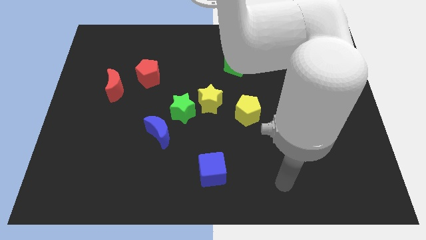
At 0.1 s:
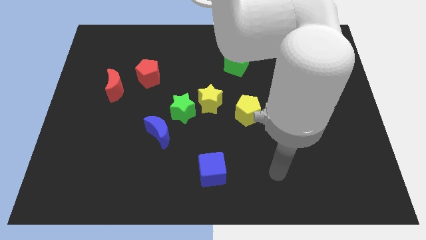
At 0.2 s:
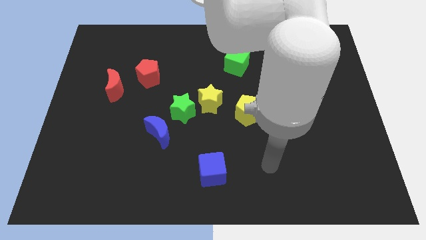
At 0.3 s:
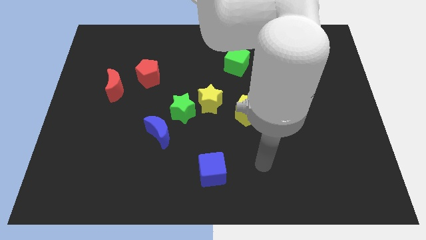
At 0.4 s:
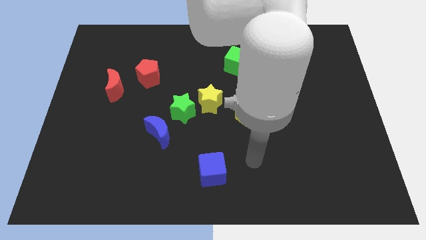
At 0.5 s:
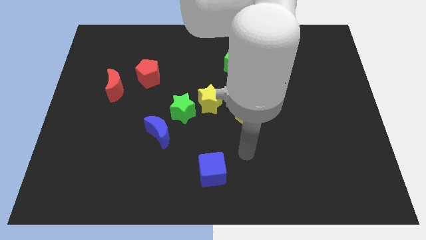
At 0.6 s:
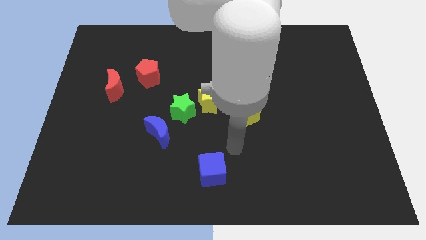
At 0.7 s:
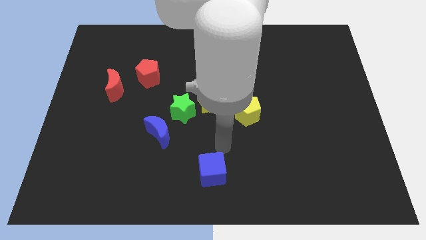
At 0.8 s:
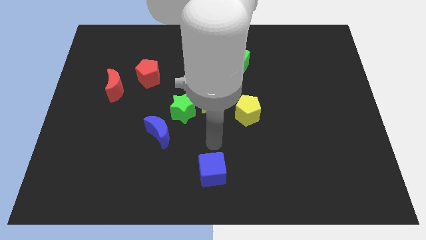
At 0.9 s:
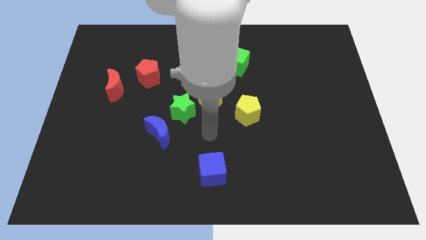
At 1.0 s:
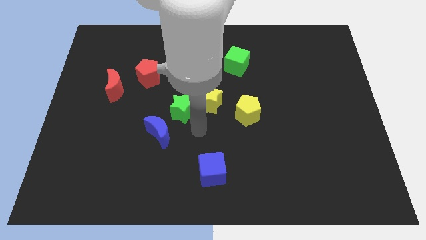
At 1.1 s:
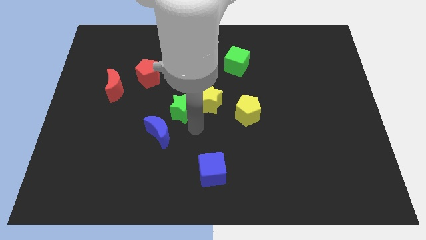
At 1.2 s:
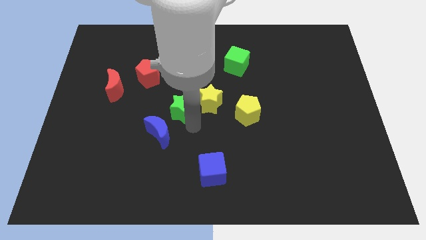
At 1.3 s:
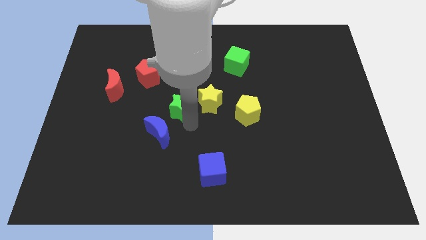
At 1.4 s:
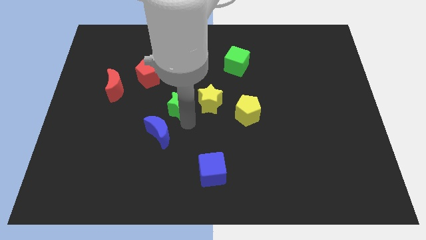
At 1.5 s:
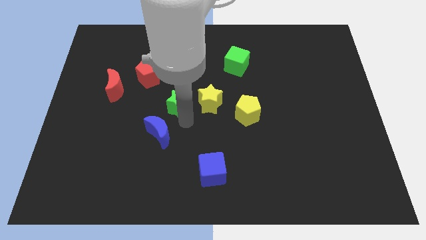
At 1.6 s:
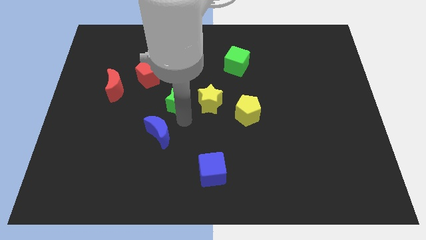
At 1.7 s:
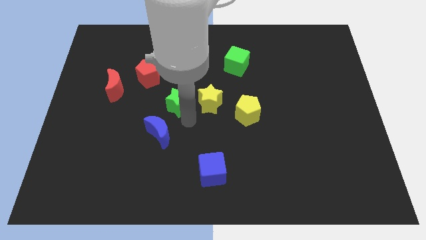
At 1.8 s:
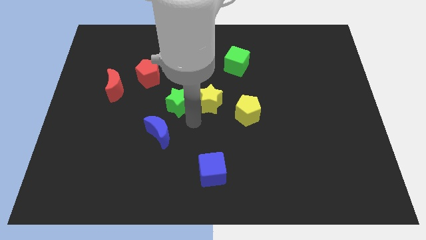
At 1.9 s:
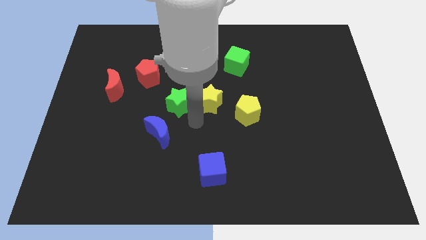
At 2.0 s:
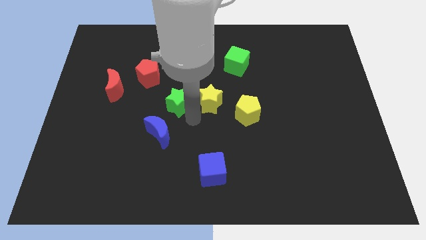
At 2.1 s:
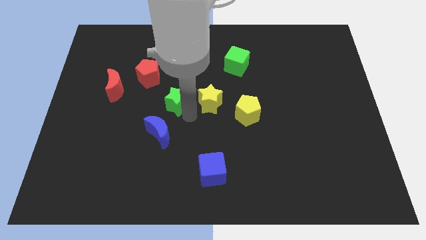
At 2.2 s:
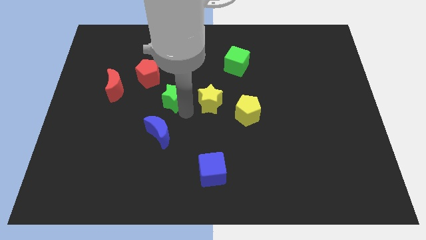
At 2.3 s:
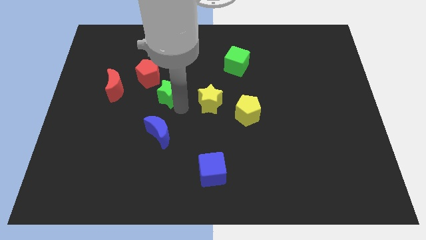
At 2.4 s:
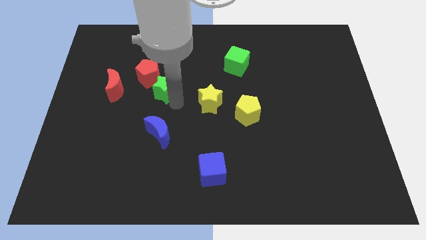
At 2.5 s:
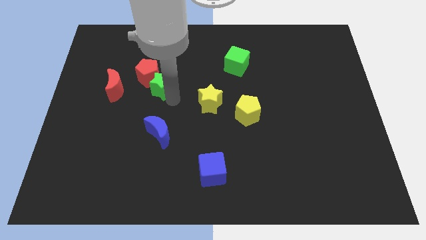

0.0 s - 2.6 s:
move the green star away from the yellow star and blue moon

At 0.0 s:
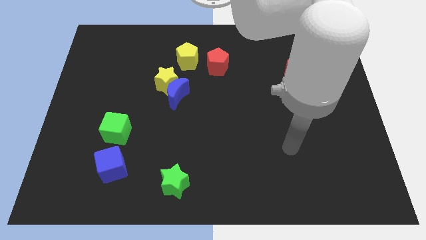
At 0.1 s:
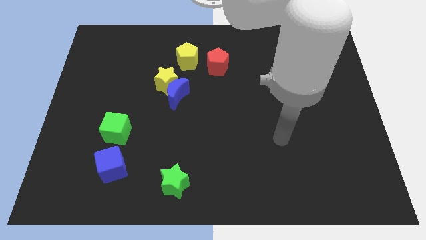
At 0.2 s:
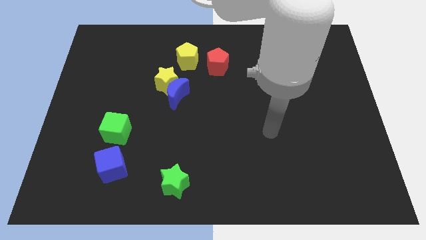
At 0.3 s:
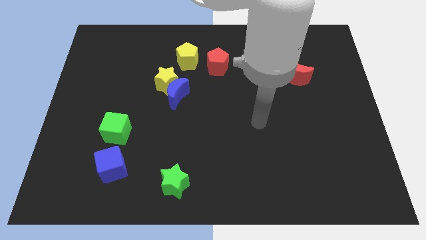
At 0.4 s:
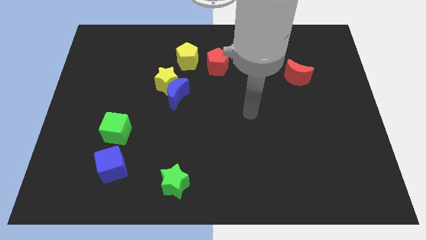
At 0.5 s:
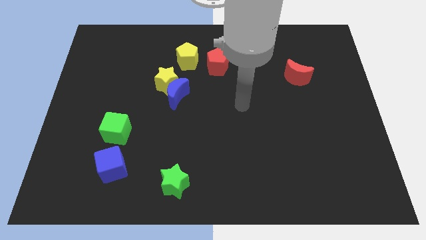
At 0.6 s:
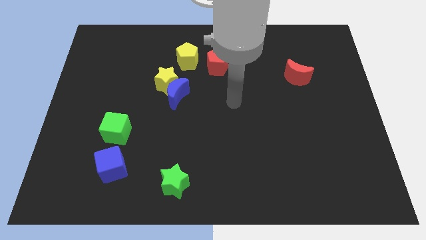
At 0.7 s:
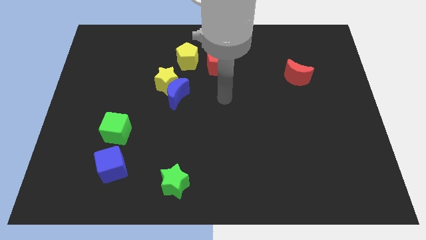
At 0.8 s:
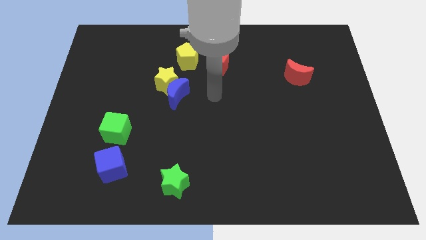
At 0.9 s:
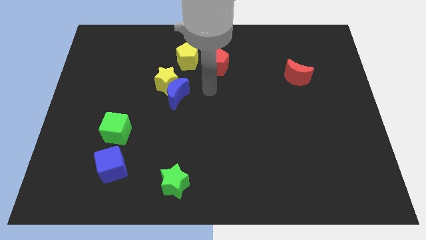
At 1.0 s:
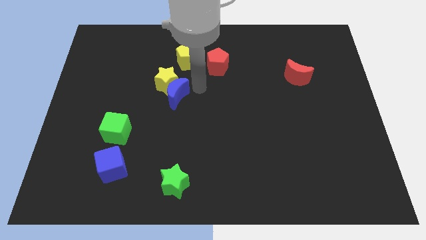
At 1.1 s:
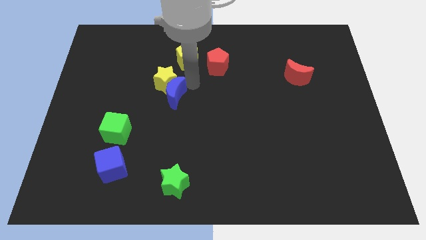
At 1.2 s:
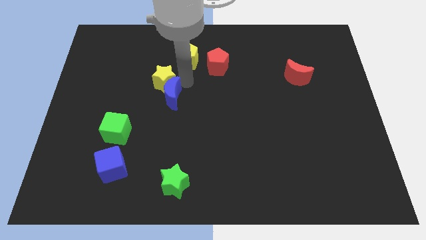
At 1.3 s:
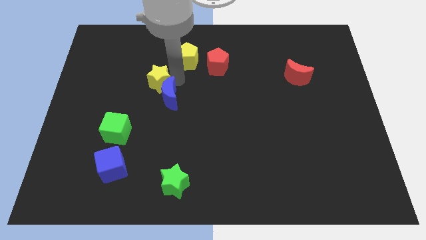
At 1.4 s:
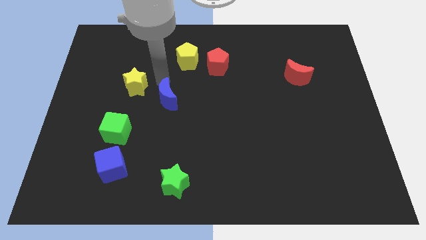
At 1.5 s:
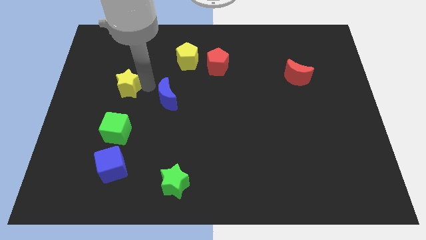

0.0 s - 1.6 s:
move the blue moon away from the yellow star

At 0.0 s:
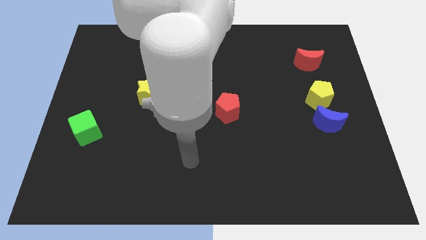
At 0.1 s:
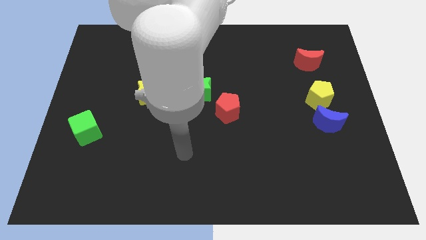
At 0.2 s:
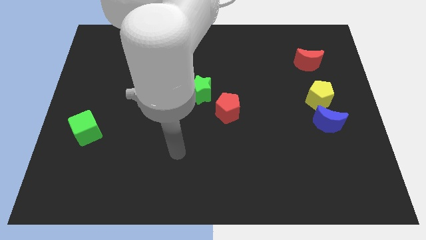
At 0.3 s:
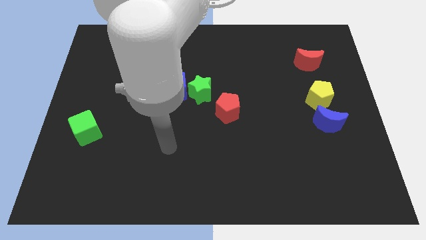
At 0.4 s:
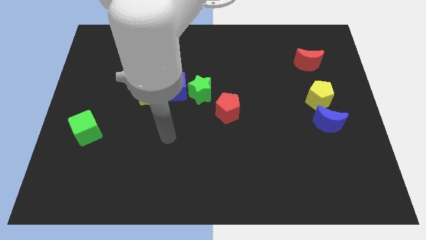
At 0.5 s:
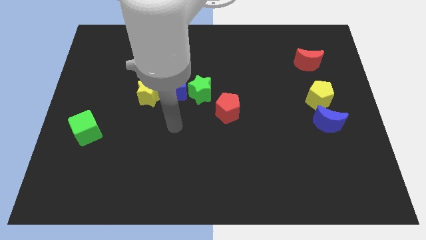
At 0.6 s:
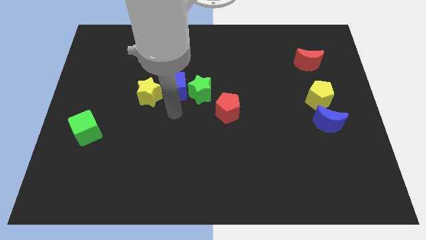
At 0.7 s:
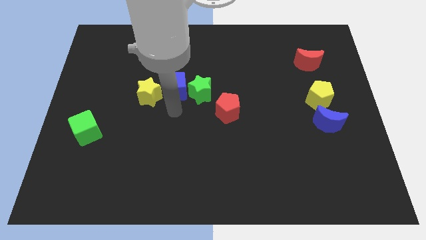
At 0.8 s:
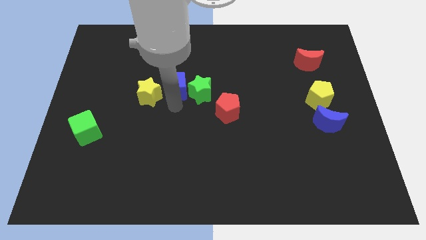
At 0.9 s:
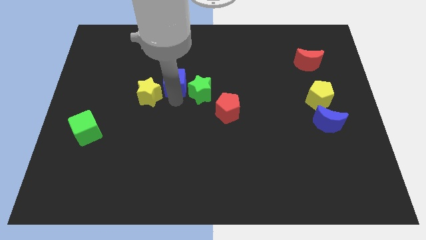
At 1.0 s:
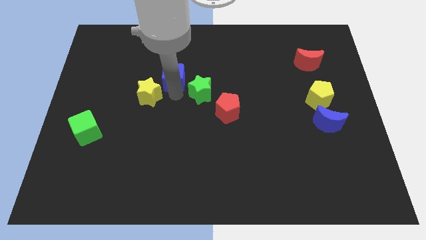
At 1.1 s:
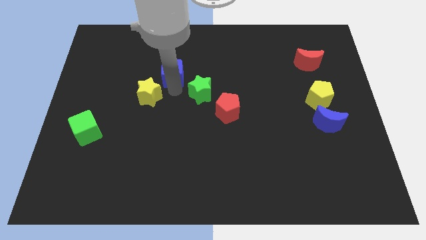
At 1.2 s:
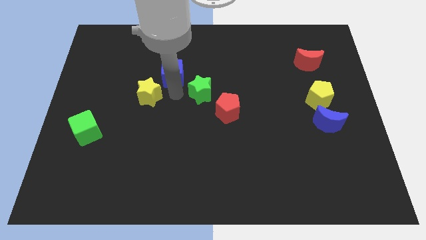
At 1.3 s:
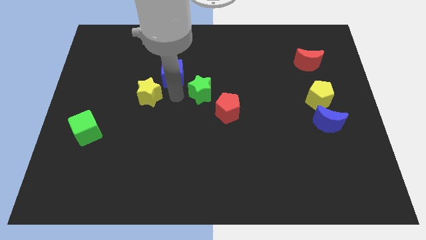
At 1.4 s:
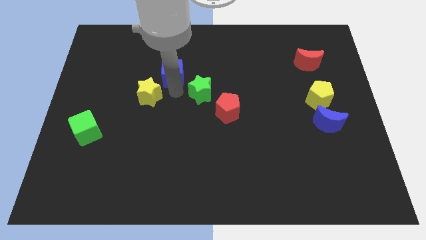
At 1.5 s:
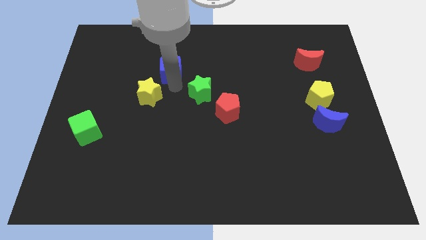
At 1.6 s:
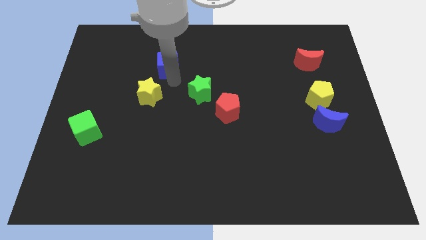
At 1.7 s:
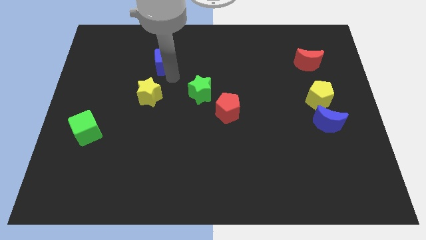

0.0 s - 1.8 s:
separate the blue cube from the green star and yellow star

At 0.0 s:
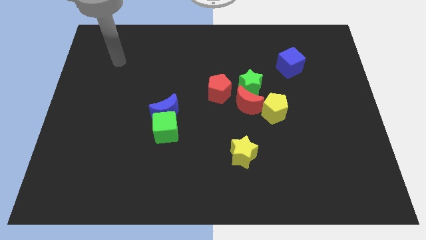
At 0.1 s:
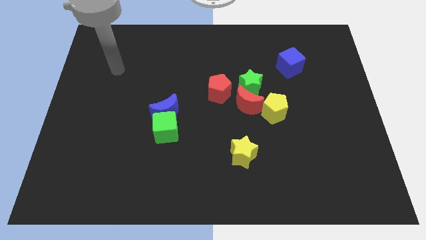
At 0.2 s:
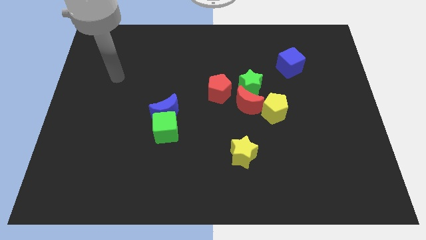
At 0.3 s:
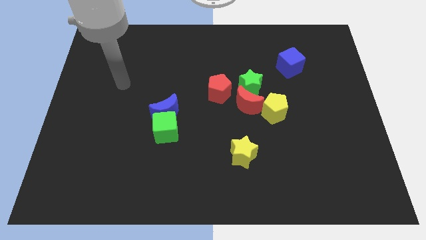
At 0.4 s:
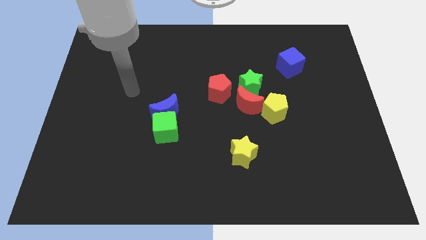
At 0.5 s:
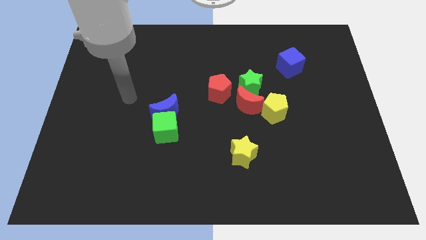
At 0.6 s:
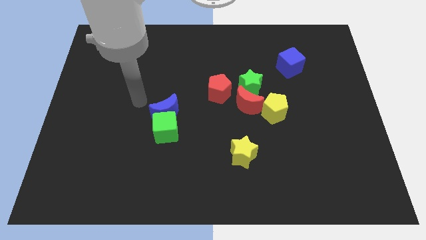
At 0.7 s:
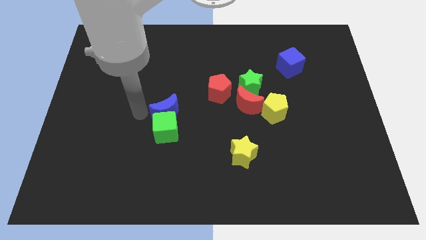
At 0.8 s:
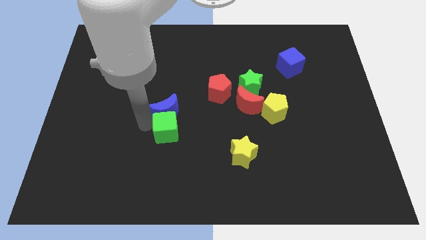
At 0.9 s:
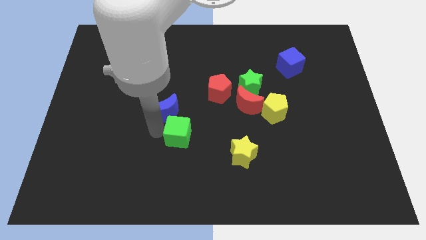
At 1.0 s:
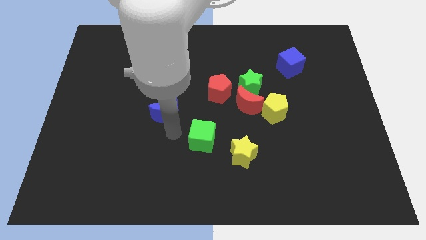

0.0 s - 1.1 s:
move the blue moon away from the green cube

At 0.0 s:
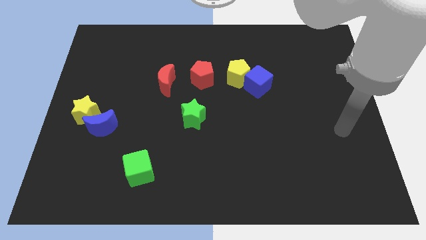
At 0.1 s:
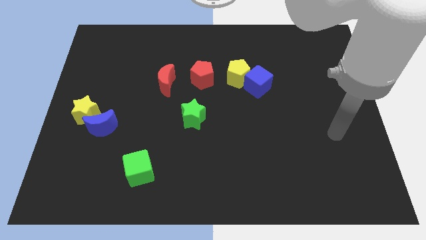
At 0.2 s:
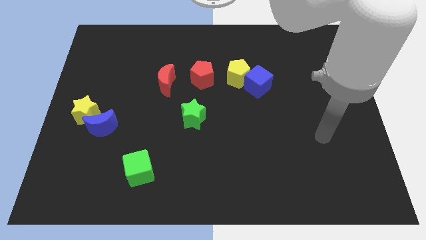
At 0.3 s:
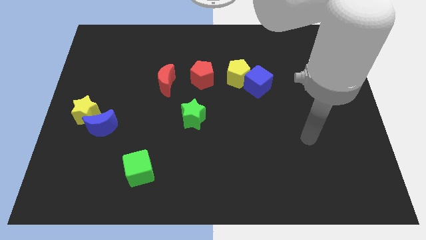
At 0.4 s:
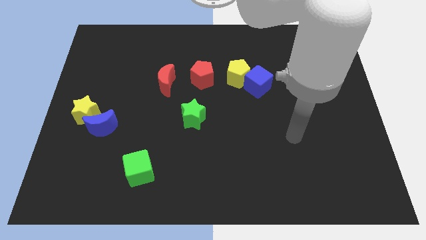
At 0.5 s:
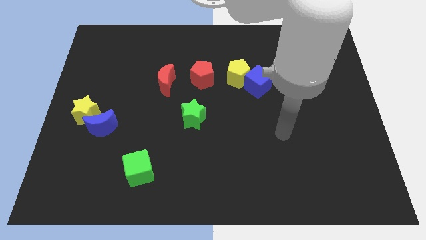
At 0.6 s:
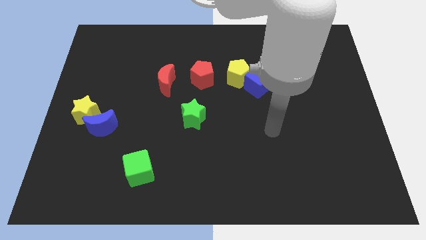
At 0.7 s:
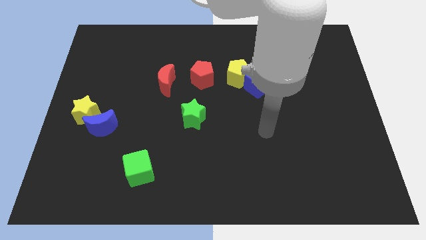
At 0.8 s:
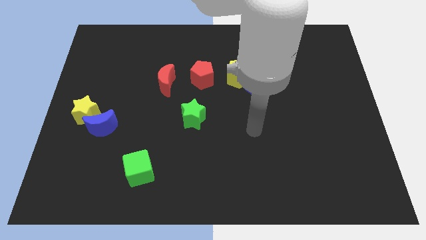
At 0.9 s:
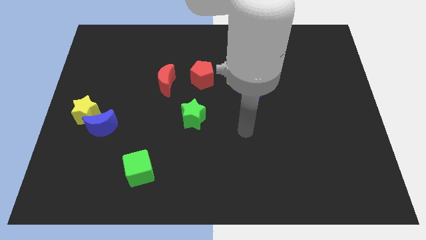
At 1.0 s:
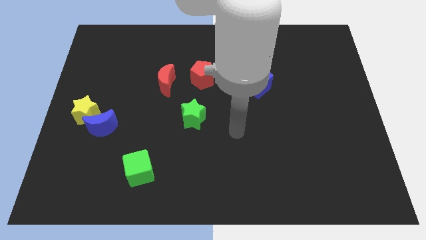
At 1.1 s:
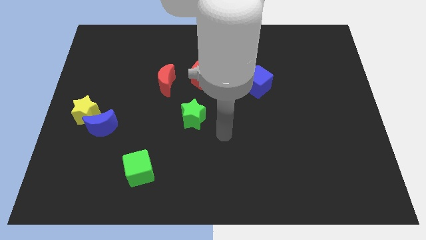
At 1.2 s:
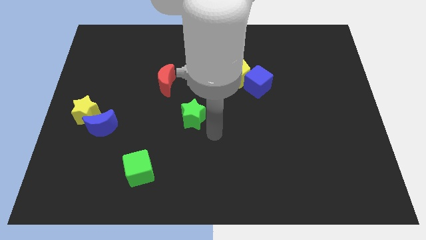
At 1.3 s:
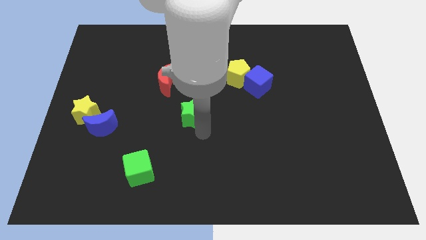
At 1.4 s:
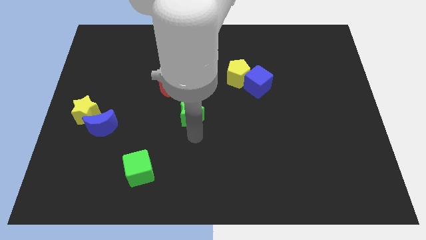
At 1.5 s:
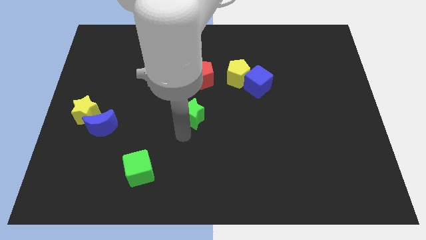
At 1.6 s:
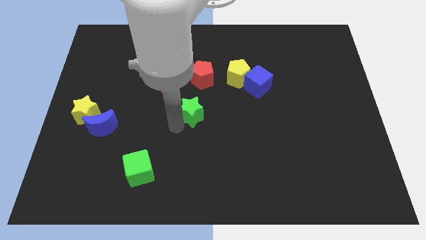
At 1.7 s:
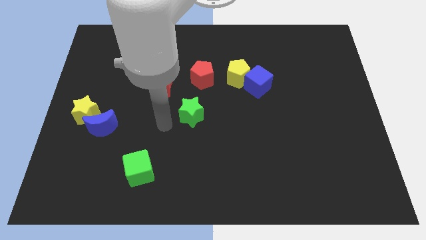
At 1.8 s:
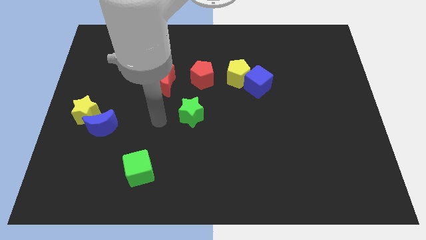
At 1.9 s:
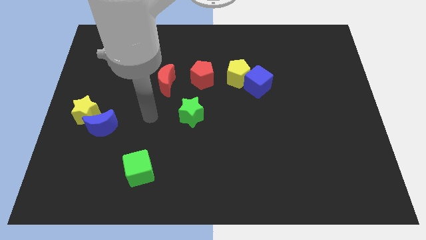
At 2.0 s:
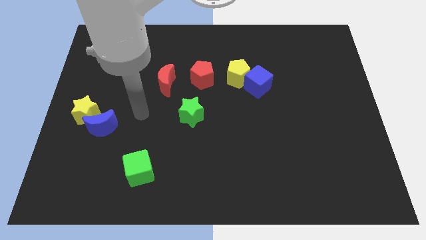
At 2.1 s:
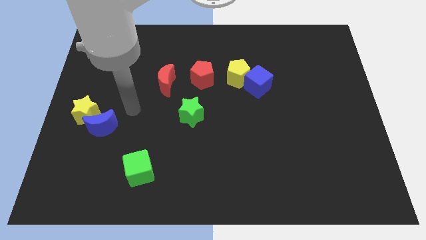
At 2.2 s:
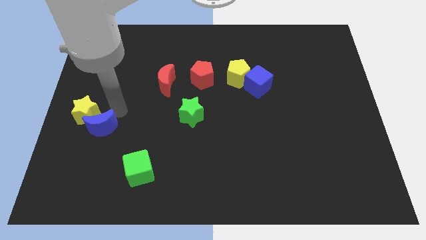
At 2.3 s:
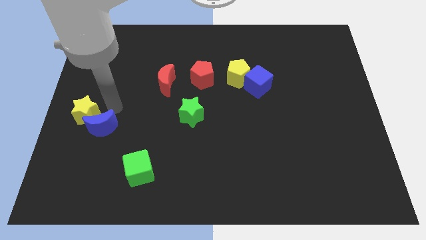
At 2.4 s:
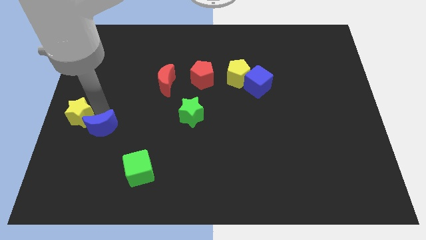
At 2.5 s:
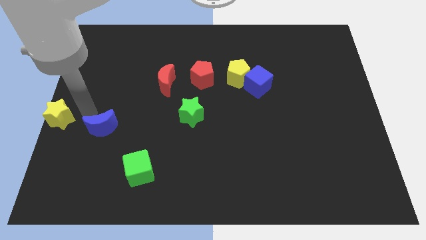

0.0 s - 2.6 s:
separate the blue moon from the yellow star
